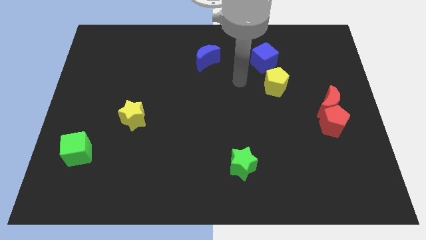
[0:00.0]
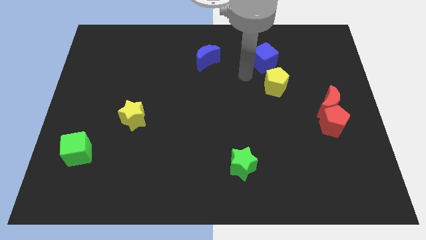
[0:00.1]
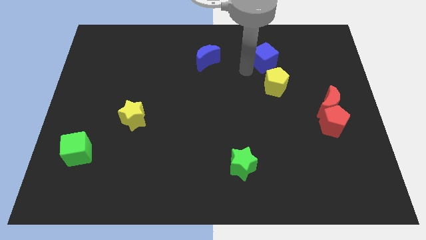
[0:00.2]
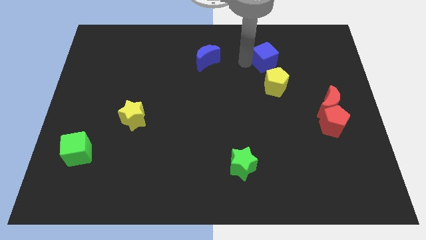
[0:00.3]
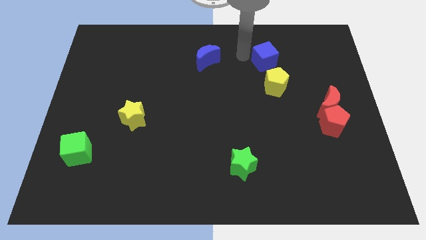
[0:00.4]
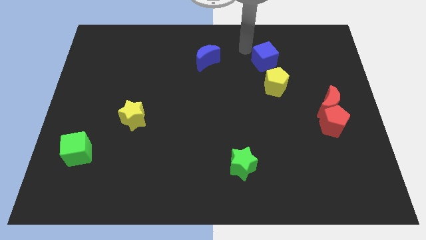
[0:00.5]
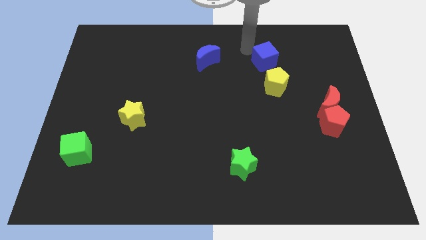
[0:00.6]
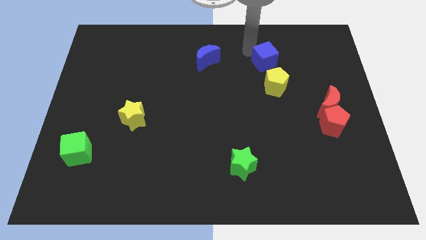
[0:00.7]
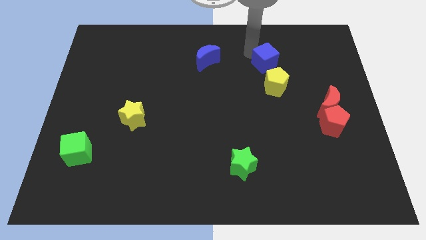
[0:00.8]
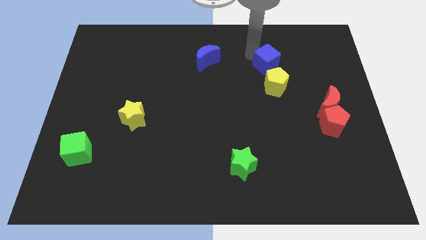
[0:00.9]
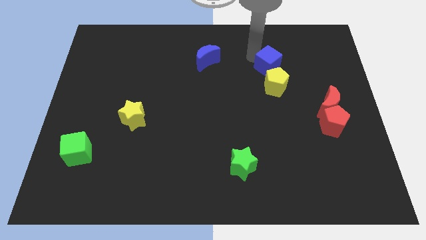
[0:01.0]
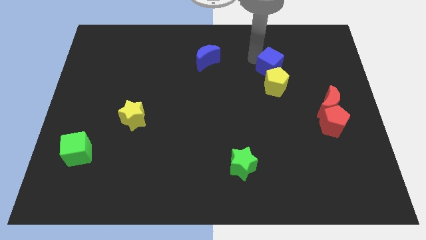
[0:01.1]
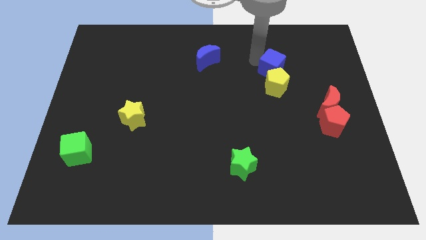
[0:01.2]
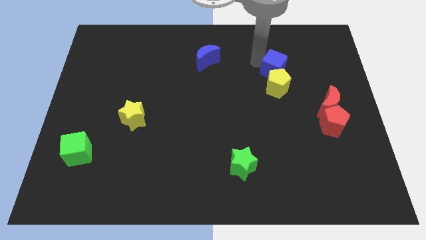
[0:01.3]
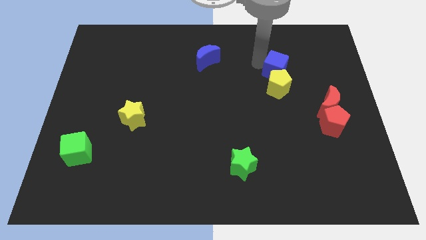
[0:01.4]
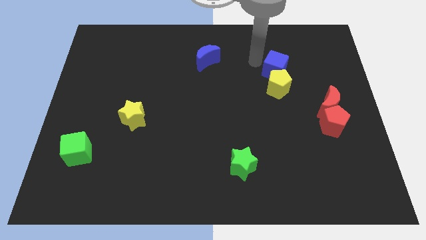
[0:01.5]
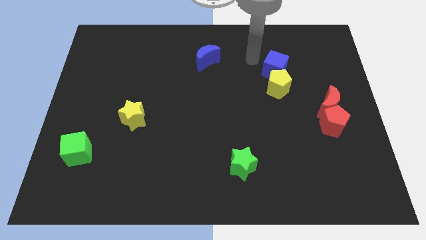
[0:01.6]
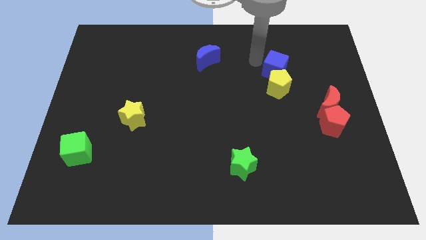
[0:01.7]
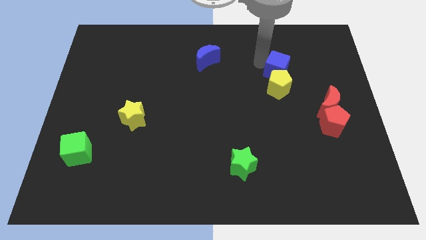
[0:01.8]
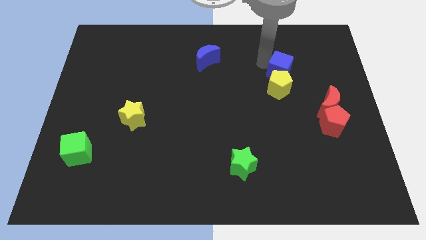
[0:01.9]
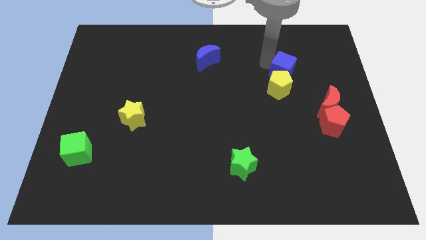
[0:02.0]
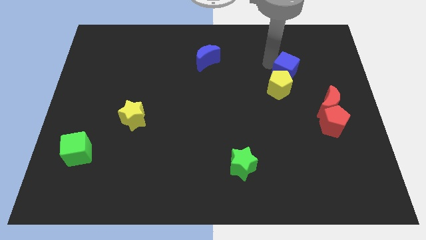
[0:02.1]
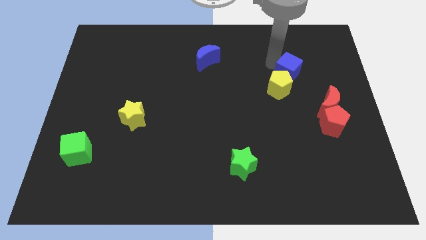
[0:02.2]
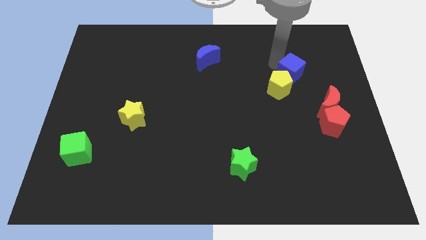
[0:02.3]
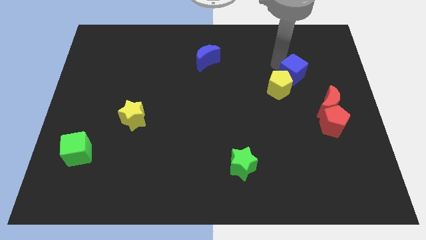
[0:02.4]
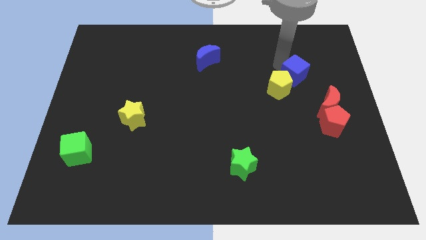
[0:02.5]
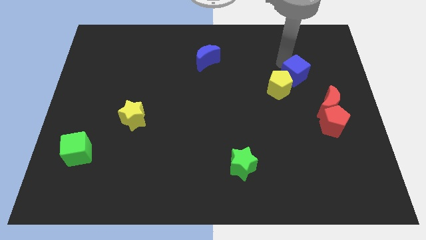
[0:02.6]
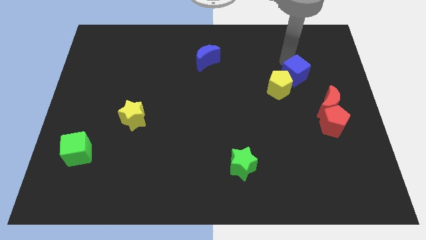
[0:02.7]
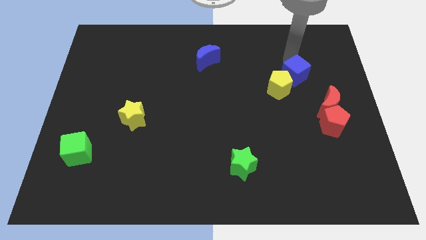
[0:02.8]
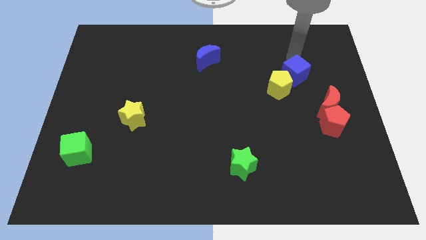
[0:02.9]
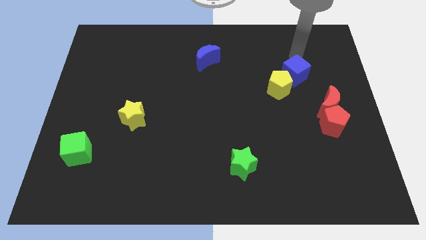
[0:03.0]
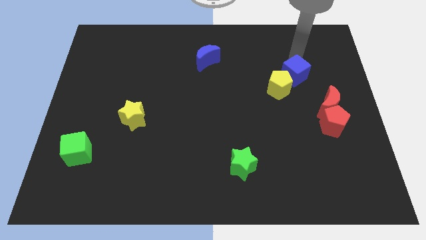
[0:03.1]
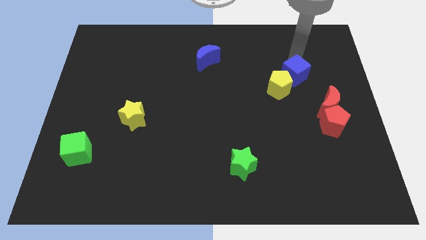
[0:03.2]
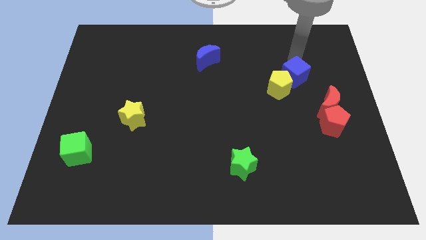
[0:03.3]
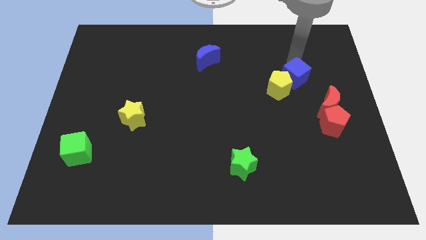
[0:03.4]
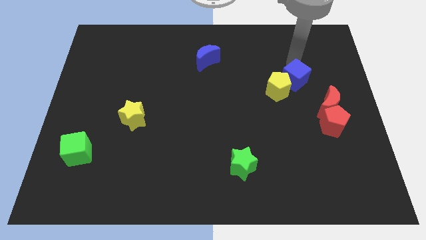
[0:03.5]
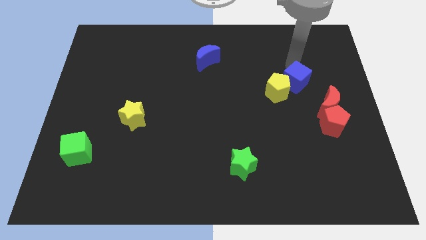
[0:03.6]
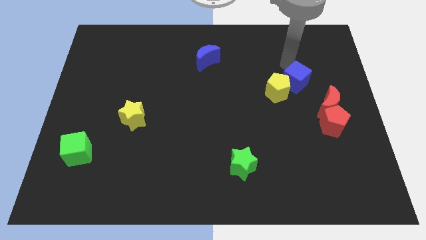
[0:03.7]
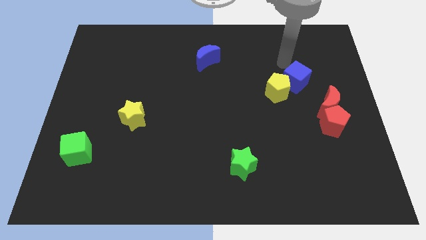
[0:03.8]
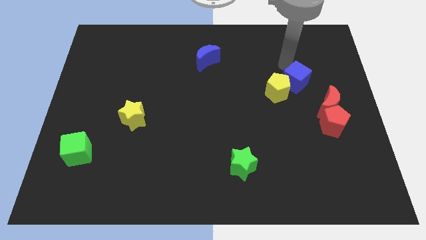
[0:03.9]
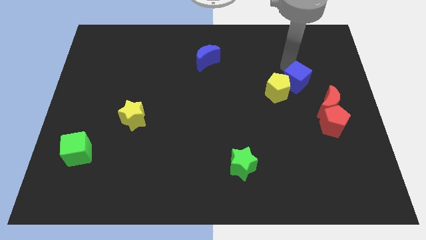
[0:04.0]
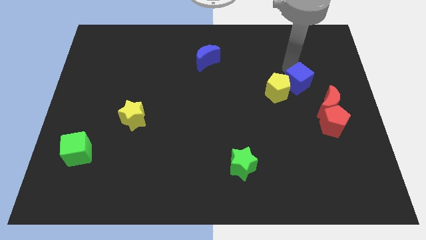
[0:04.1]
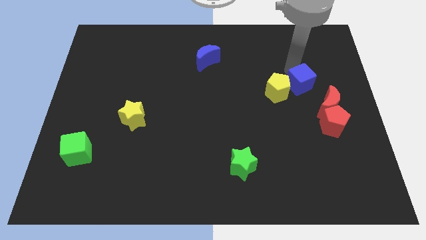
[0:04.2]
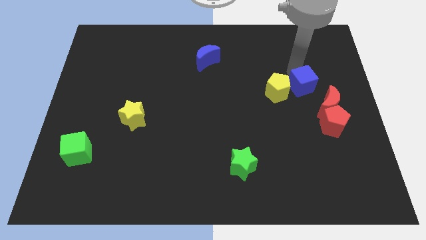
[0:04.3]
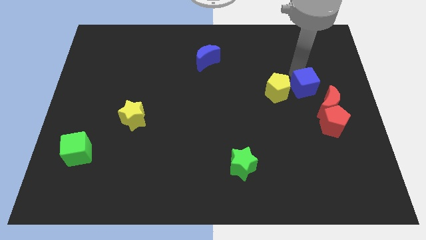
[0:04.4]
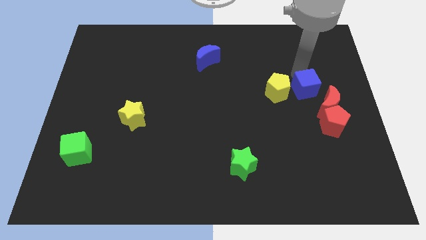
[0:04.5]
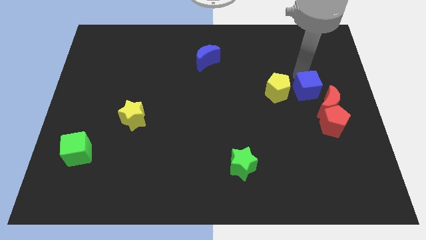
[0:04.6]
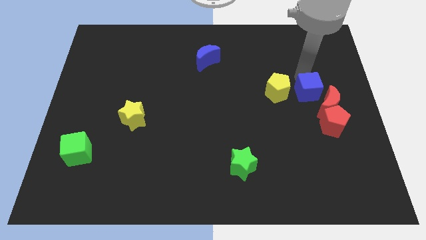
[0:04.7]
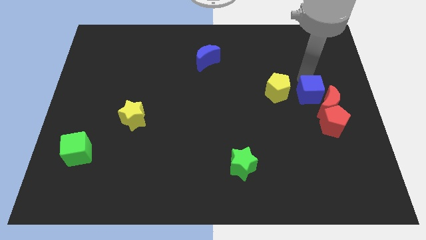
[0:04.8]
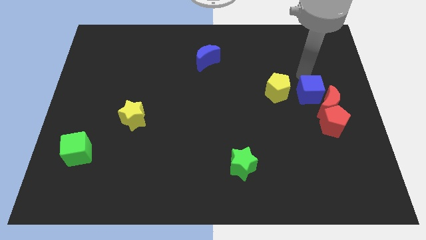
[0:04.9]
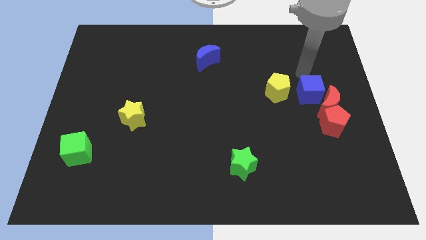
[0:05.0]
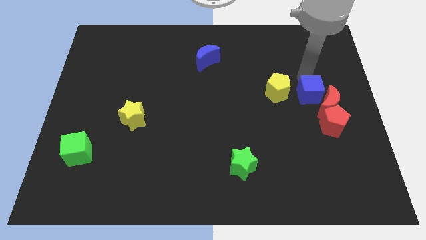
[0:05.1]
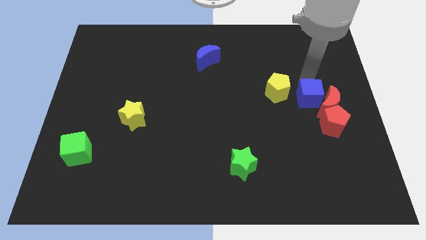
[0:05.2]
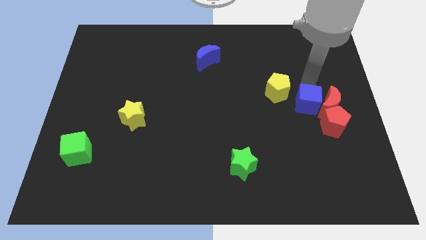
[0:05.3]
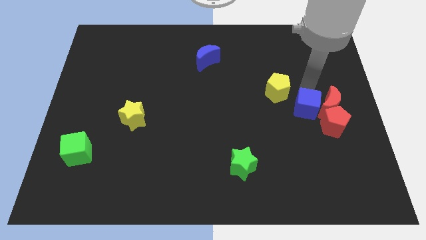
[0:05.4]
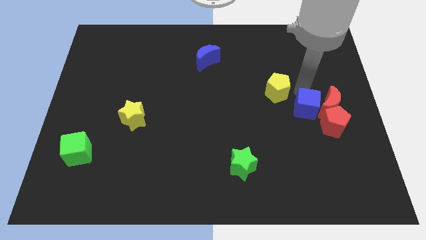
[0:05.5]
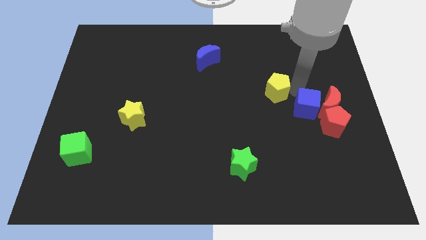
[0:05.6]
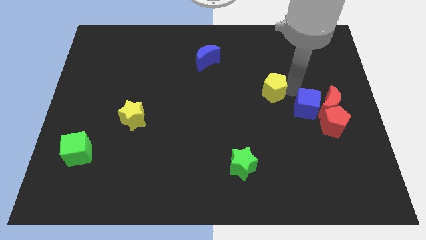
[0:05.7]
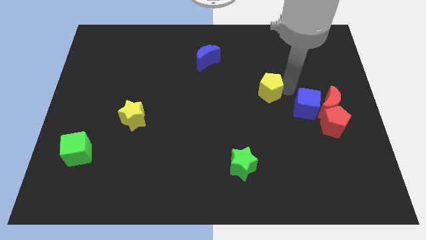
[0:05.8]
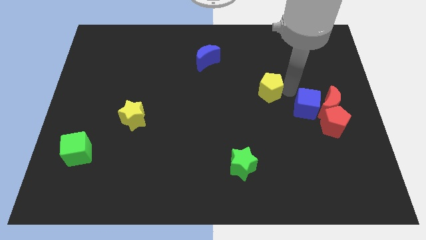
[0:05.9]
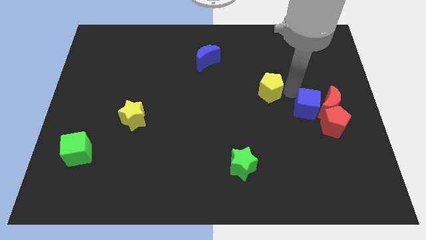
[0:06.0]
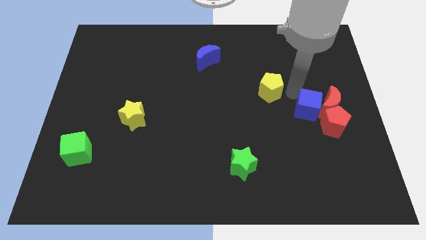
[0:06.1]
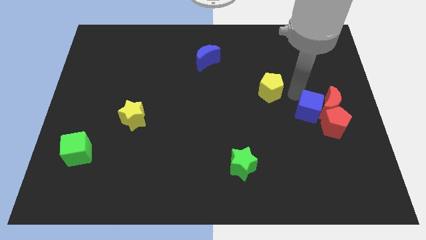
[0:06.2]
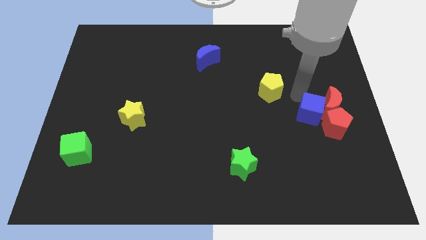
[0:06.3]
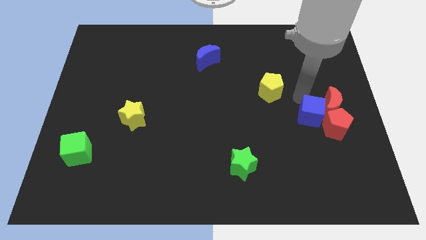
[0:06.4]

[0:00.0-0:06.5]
put the blue cube next to the red pentagon

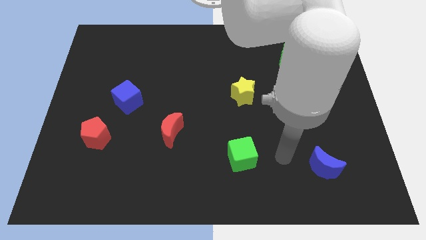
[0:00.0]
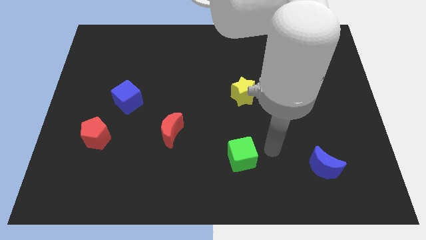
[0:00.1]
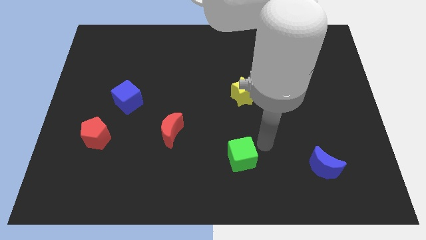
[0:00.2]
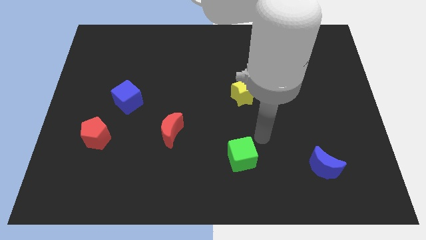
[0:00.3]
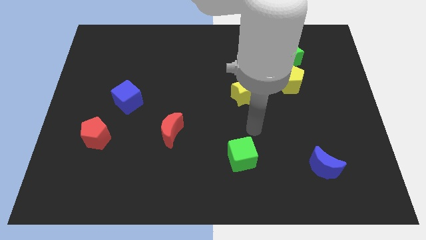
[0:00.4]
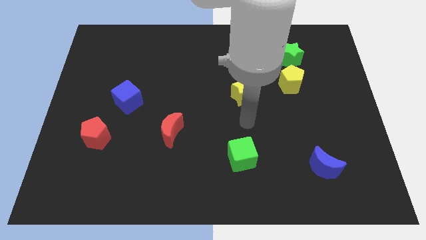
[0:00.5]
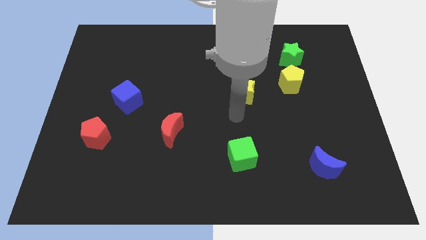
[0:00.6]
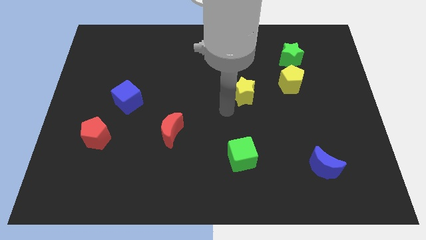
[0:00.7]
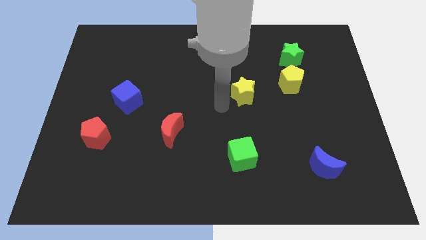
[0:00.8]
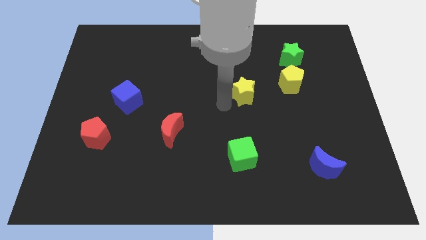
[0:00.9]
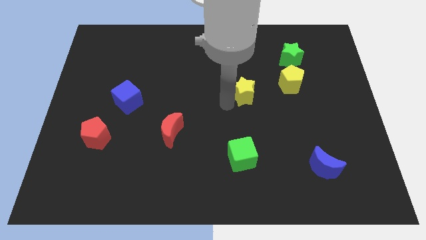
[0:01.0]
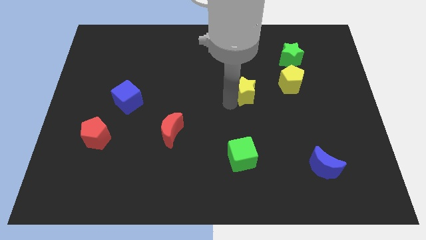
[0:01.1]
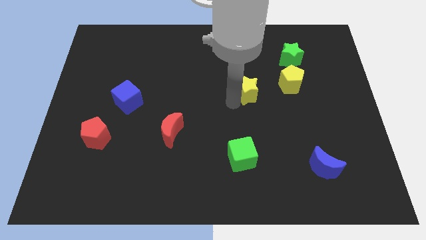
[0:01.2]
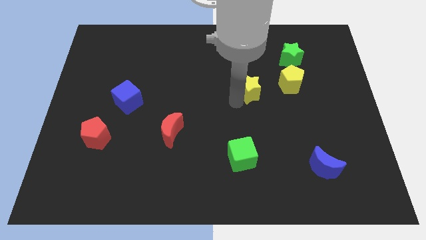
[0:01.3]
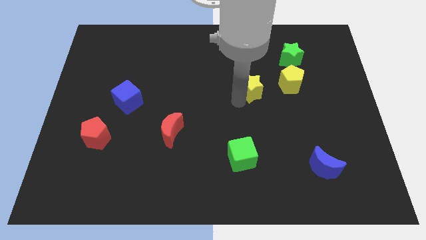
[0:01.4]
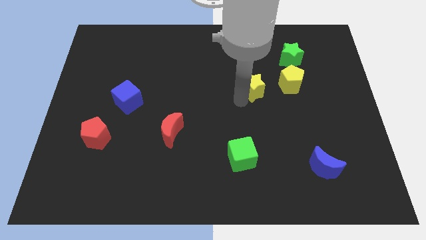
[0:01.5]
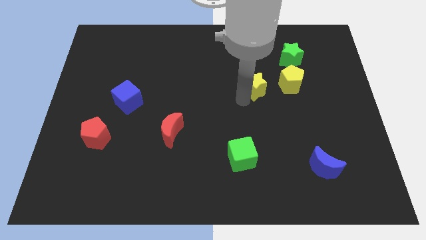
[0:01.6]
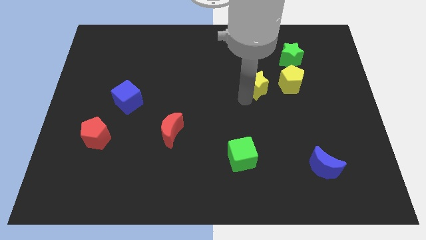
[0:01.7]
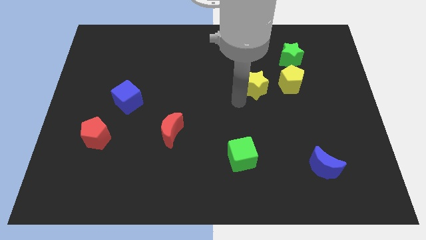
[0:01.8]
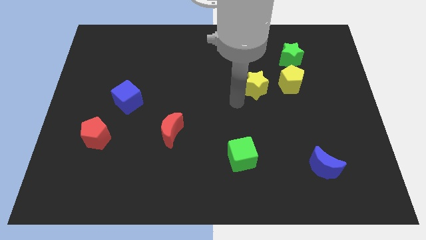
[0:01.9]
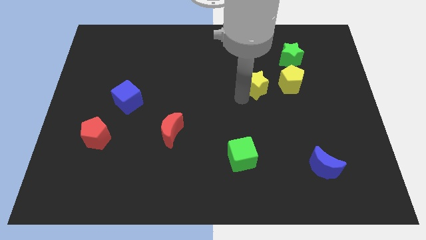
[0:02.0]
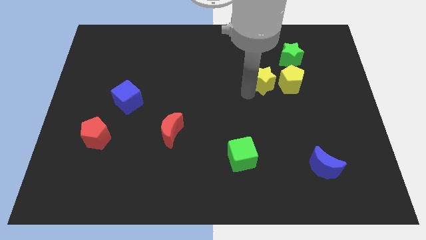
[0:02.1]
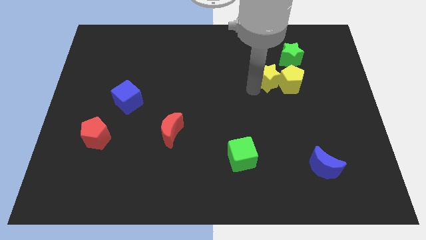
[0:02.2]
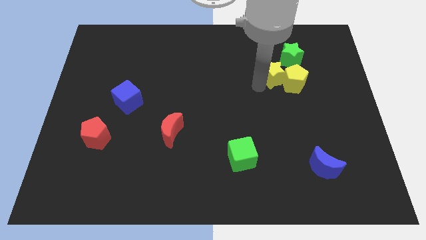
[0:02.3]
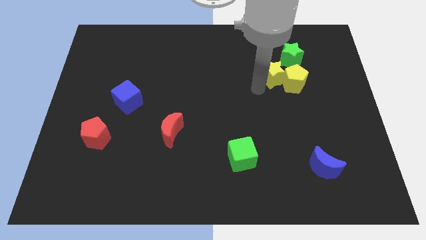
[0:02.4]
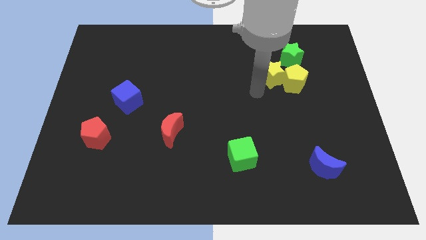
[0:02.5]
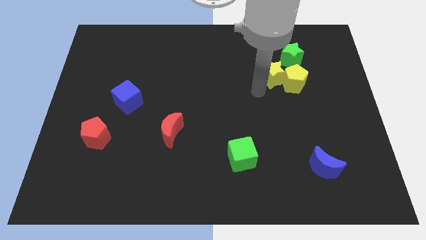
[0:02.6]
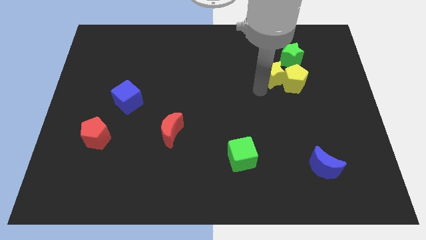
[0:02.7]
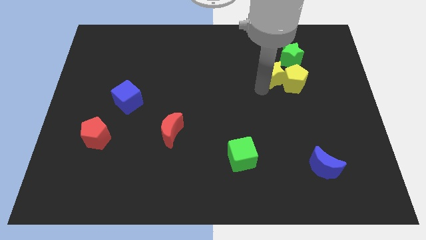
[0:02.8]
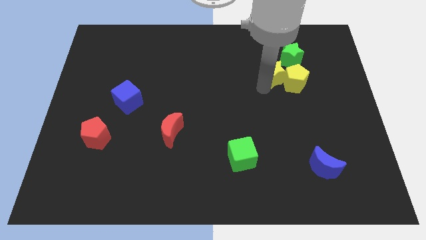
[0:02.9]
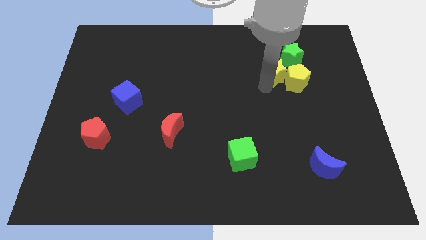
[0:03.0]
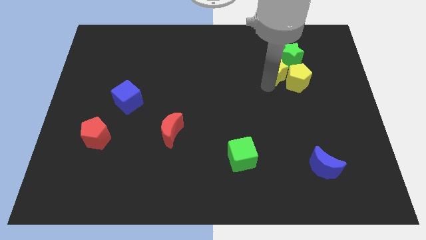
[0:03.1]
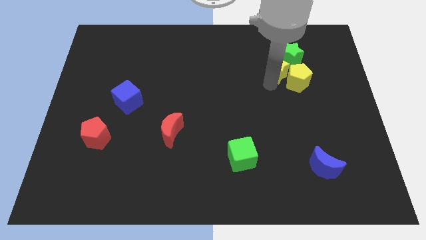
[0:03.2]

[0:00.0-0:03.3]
slide the yellow star close to the green star
